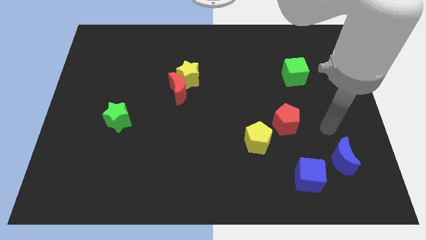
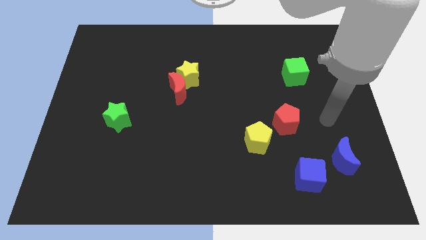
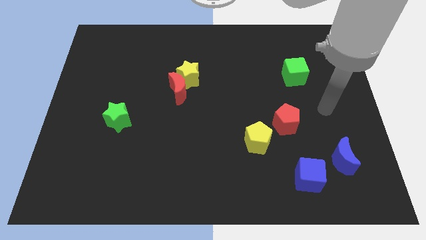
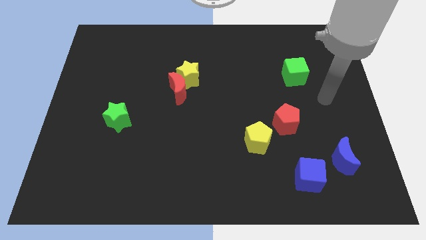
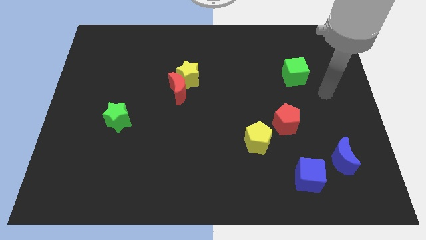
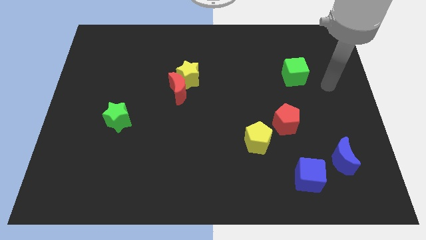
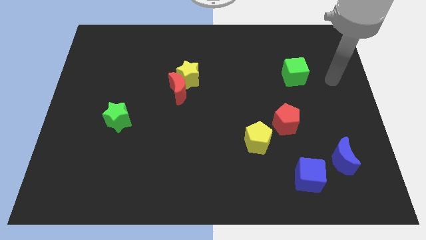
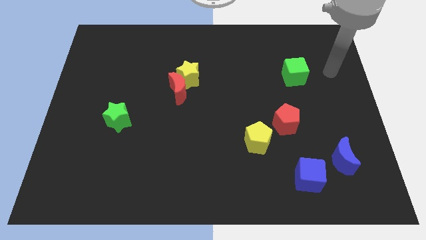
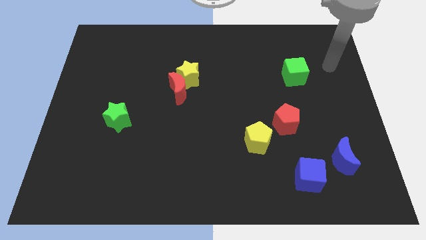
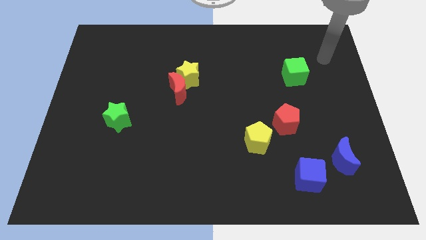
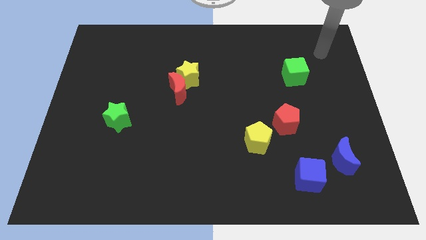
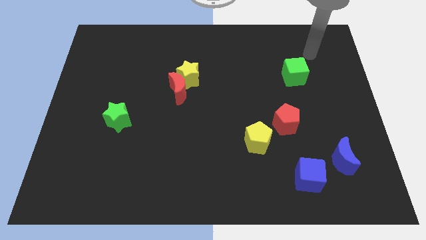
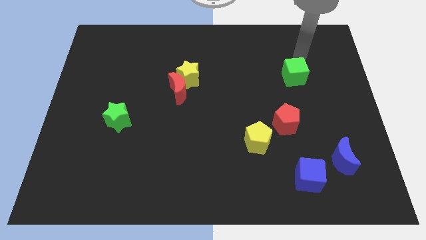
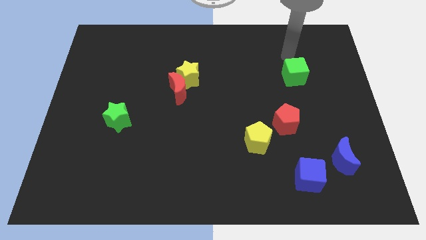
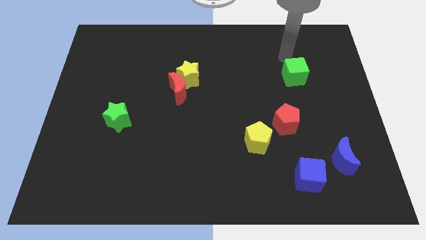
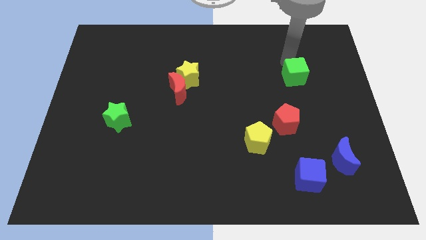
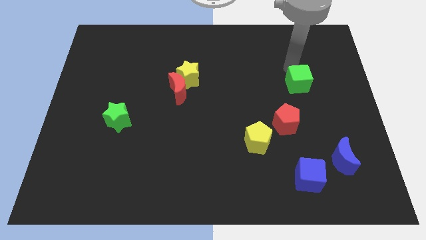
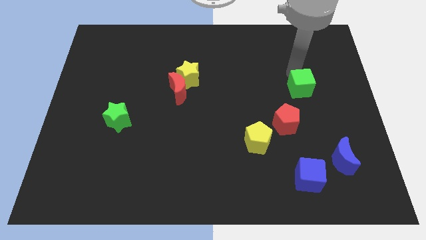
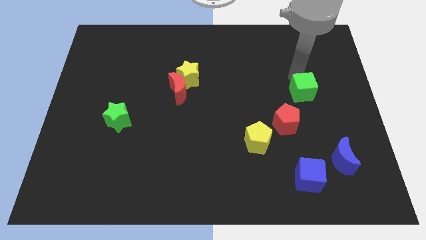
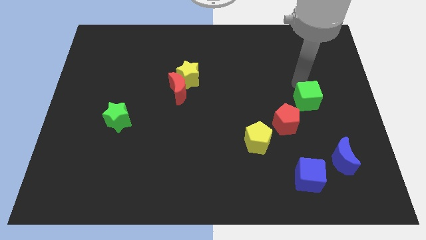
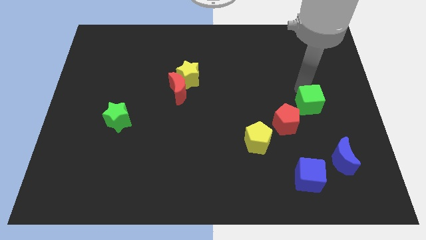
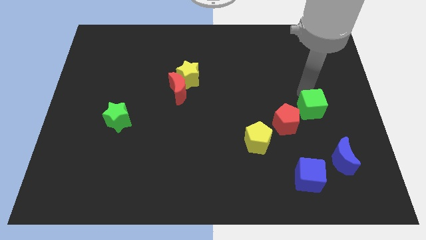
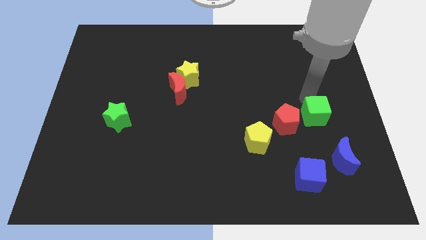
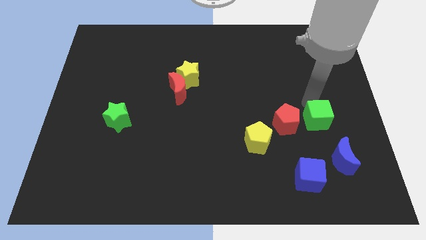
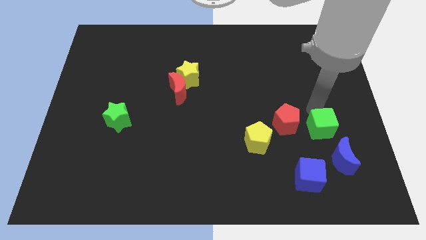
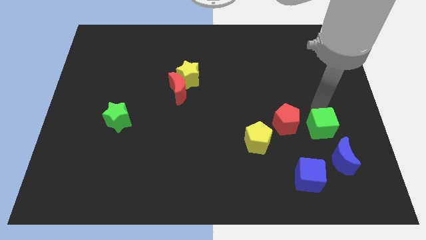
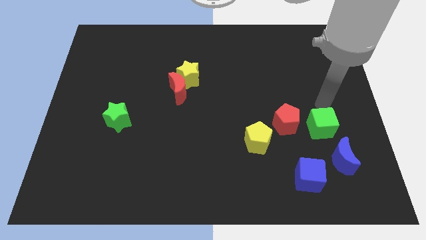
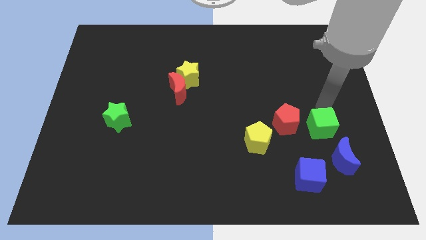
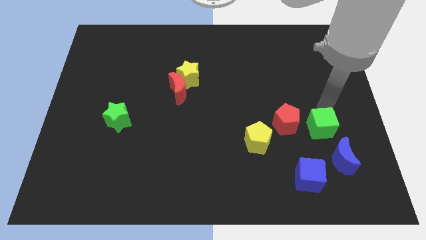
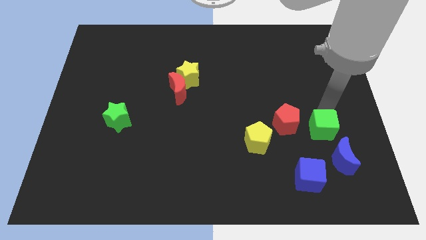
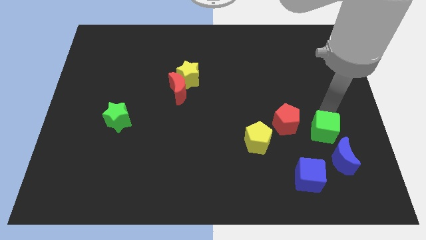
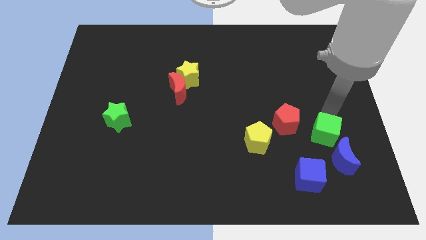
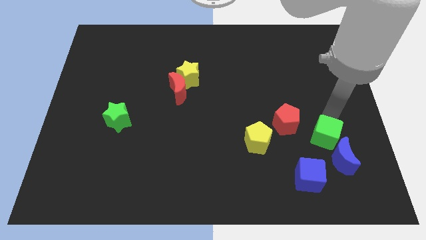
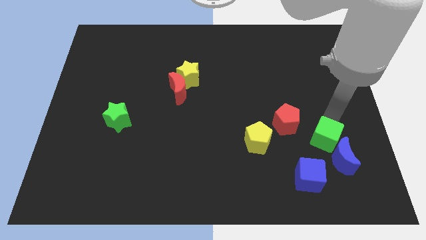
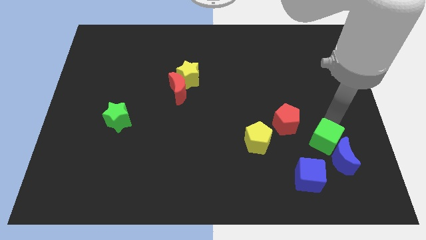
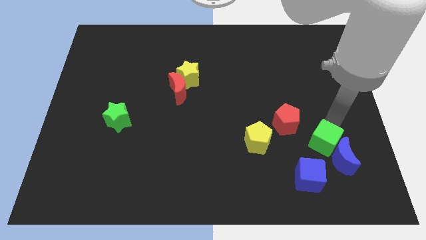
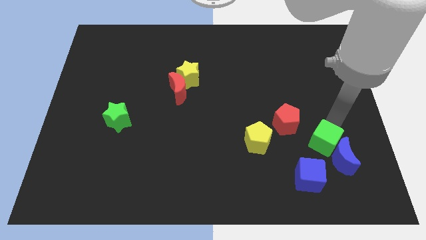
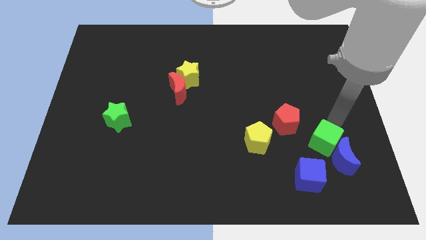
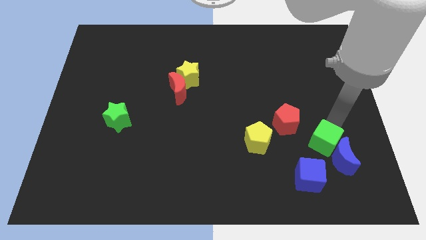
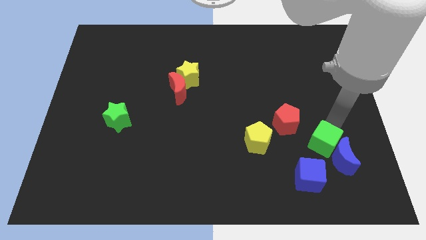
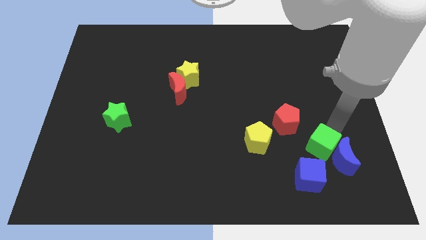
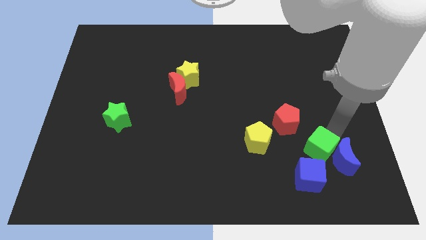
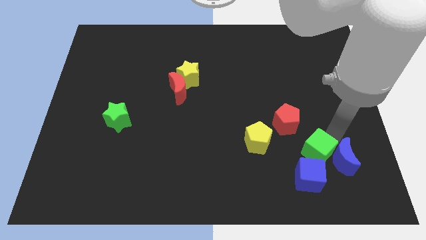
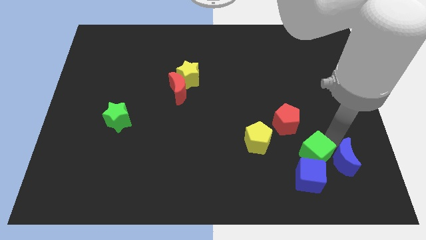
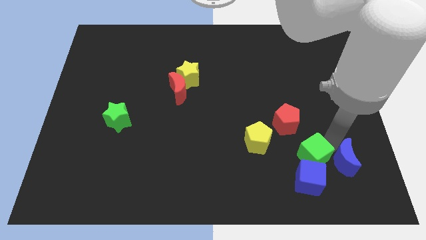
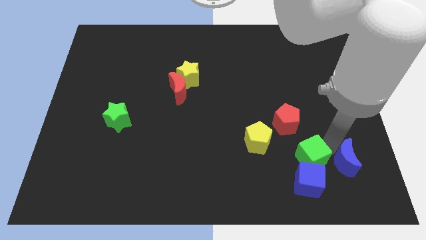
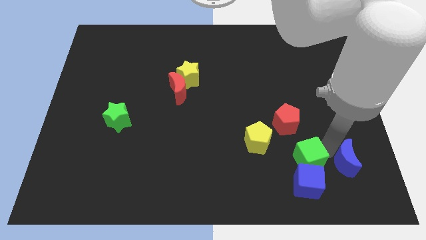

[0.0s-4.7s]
slide the green cube to the bottom right of the yellow pentagon

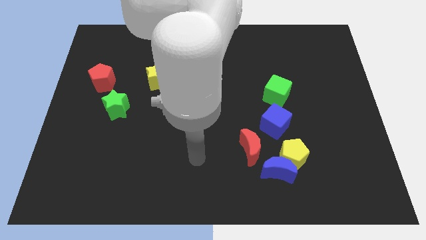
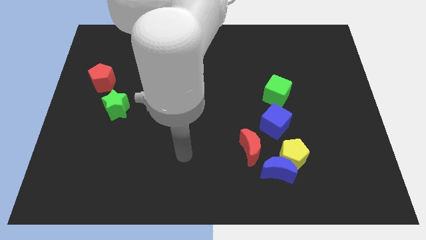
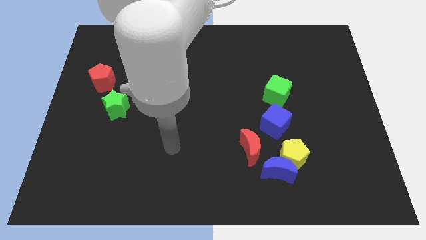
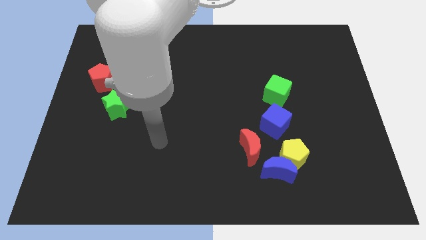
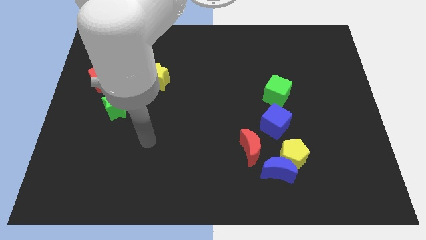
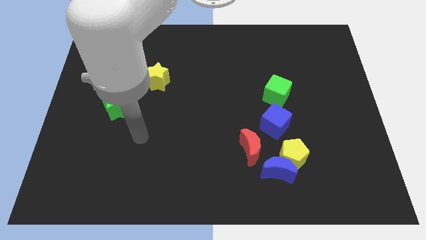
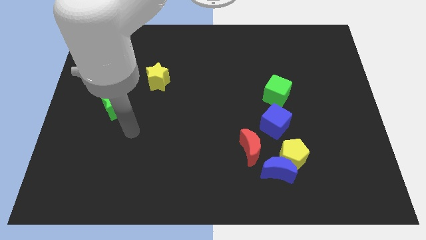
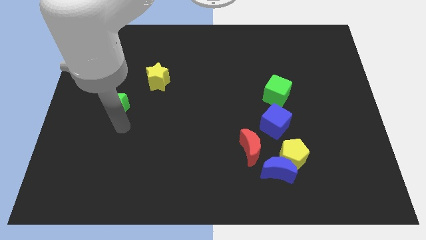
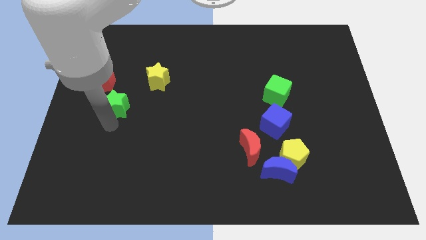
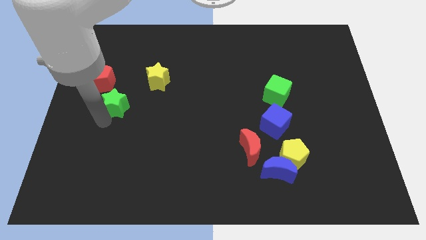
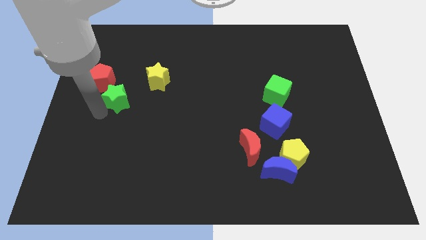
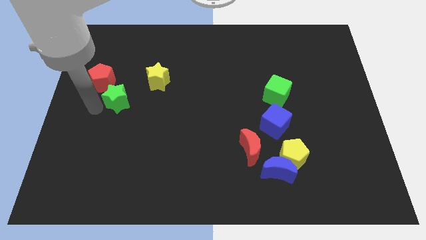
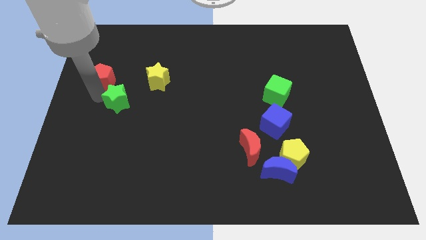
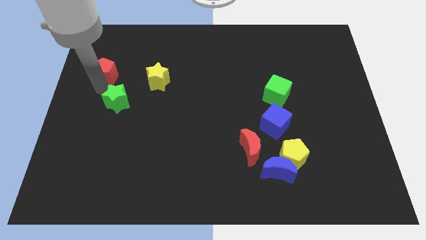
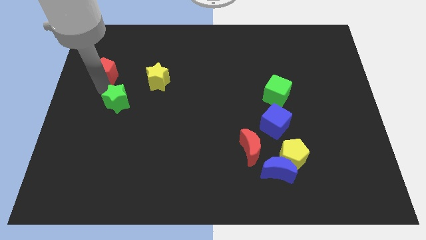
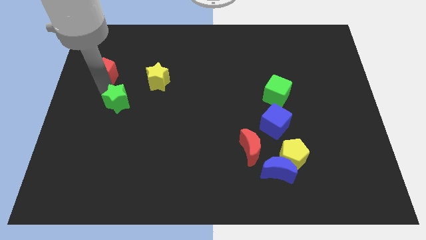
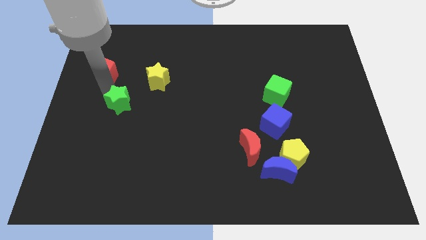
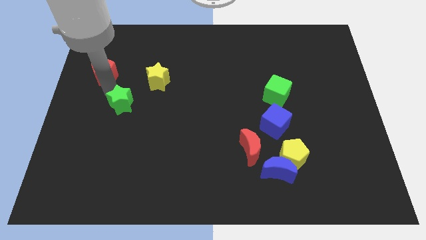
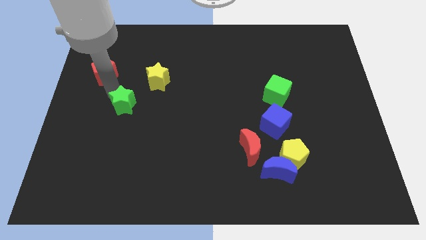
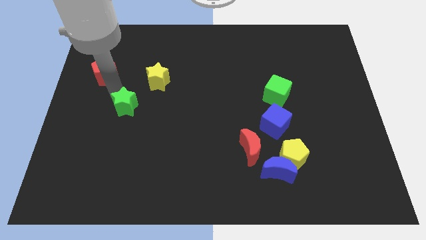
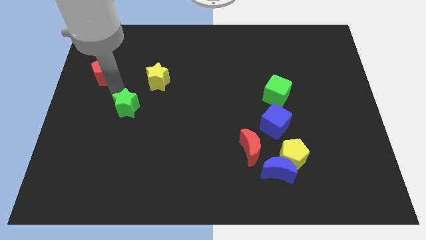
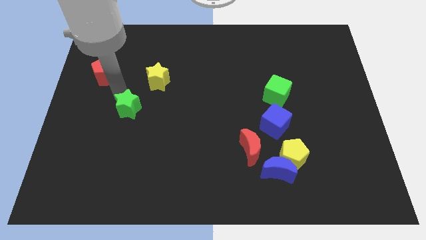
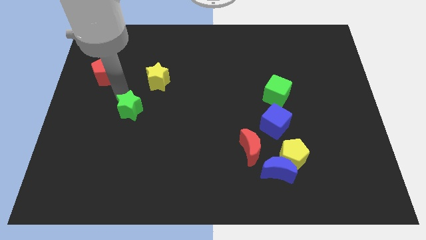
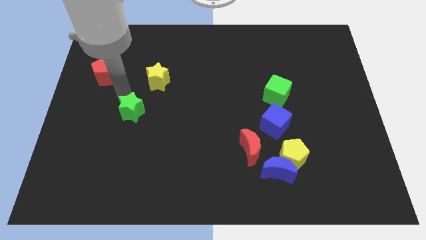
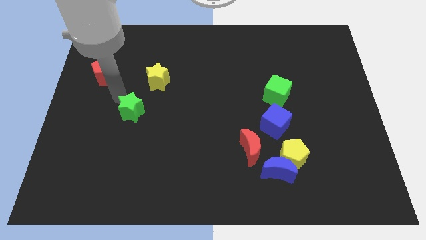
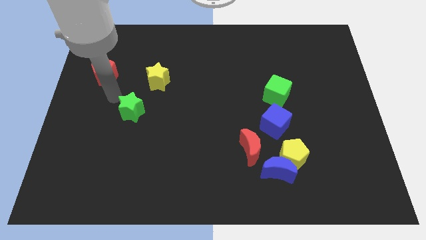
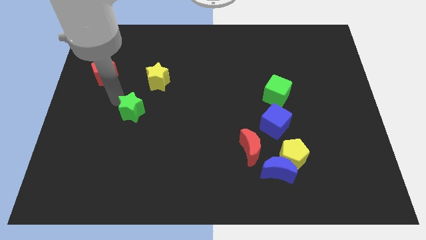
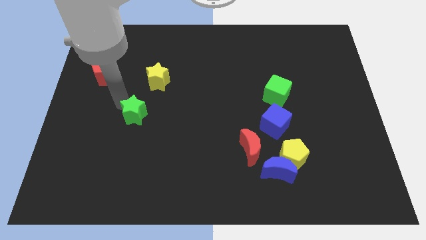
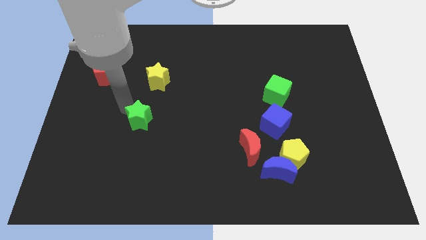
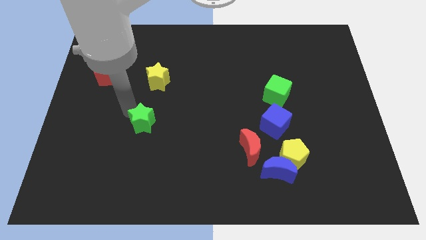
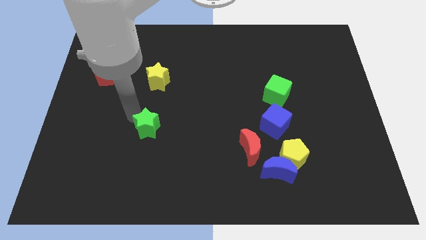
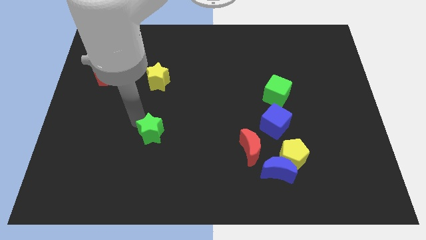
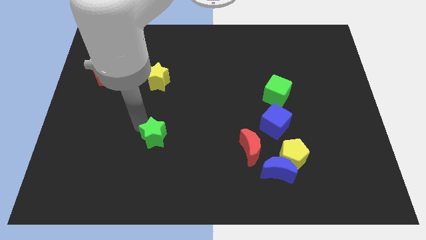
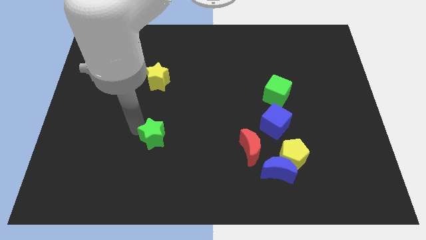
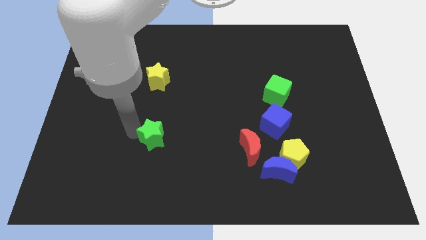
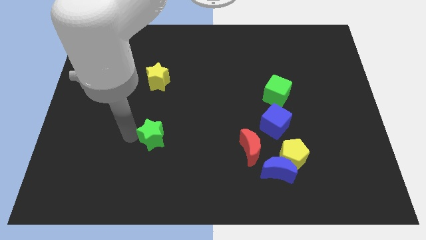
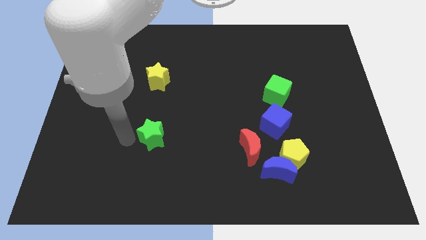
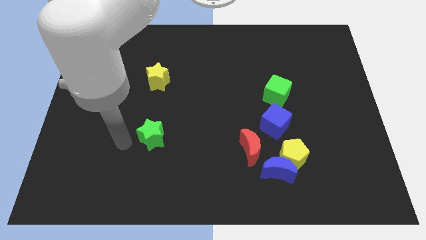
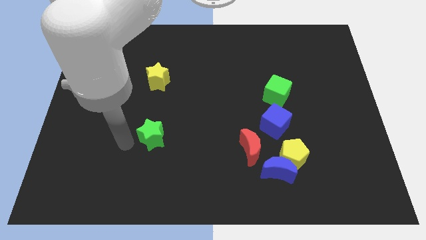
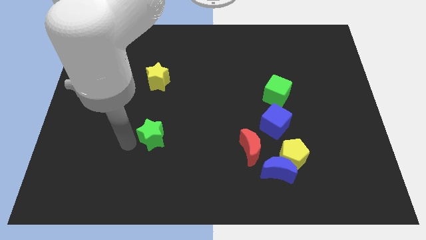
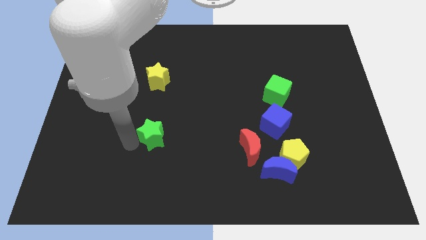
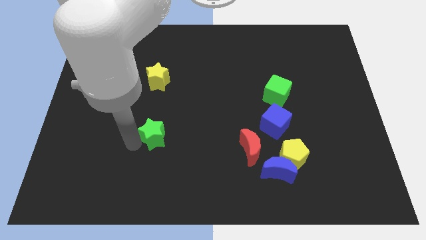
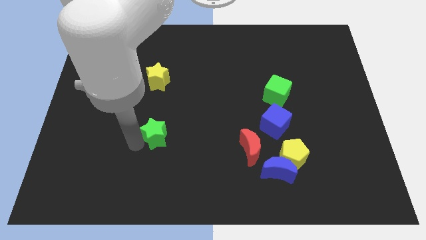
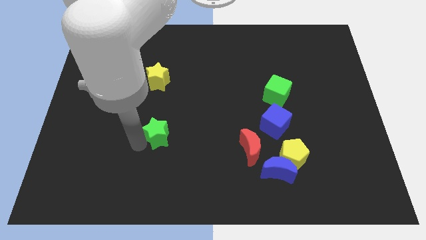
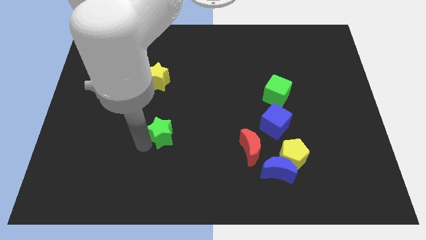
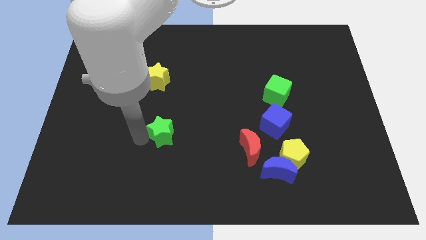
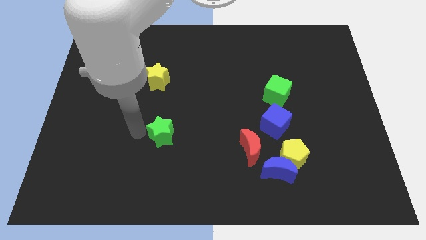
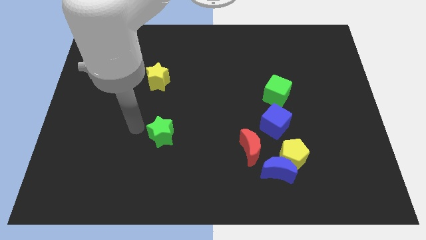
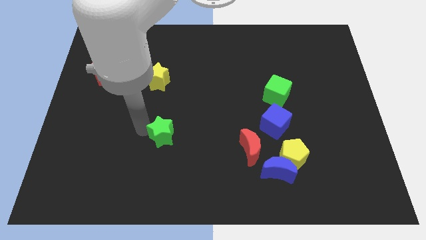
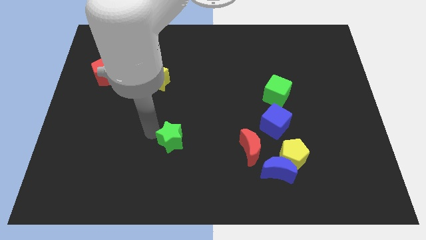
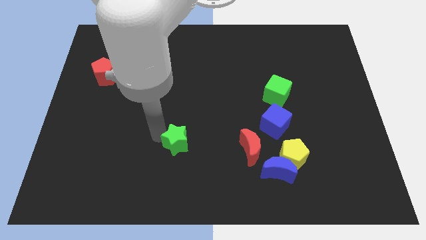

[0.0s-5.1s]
put the green star to the left side of the red moon
